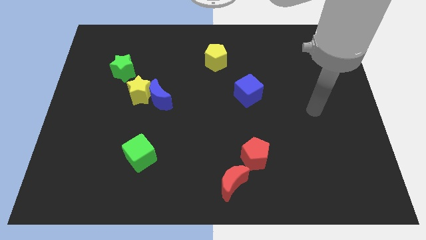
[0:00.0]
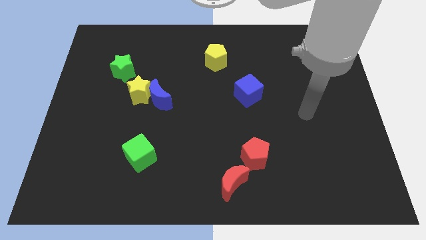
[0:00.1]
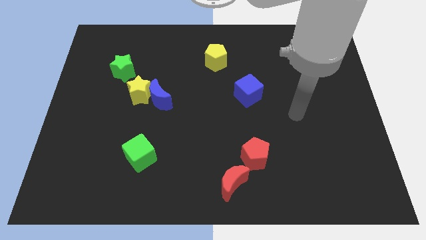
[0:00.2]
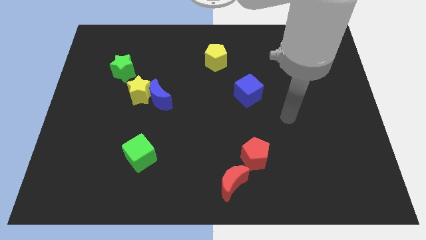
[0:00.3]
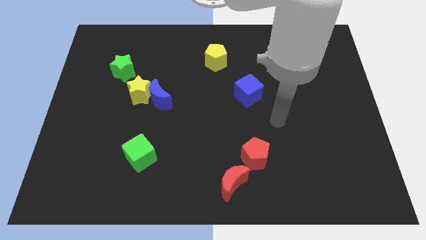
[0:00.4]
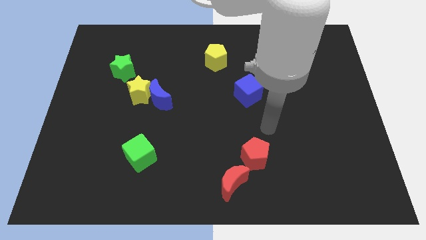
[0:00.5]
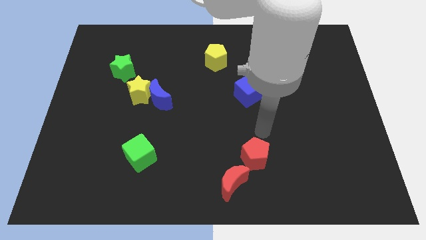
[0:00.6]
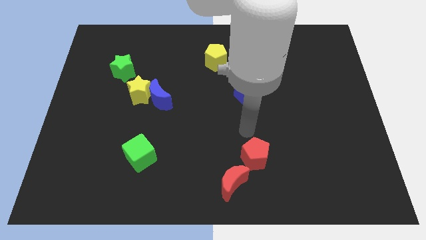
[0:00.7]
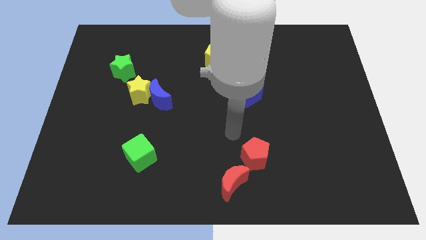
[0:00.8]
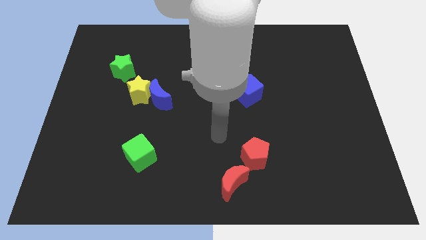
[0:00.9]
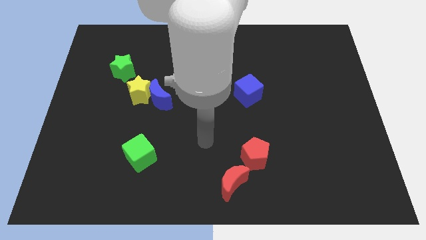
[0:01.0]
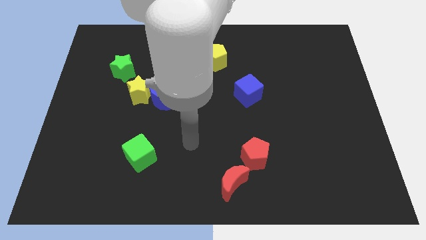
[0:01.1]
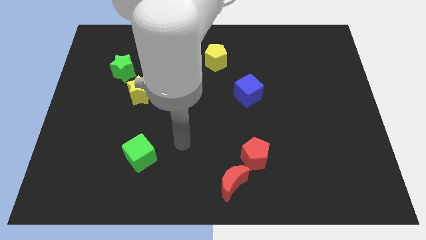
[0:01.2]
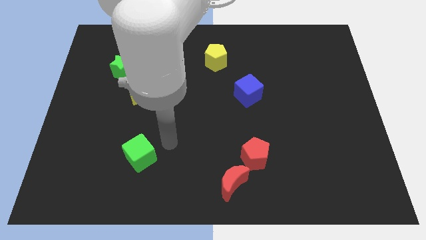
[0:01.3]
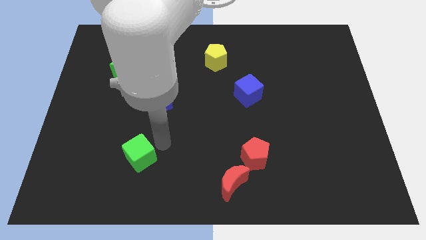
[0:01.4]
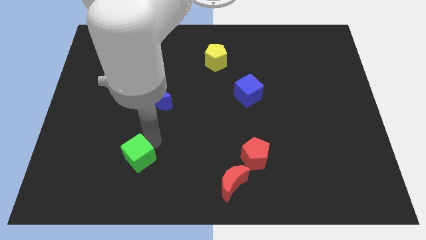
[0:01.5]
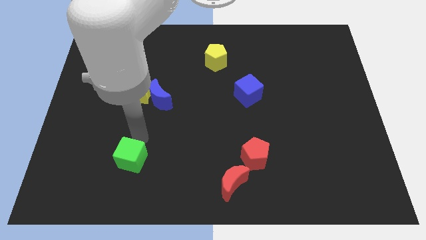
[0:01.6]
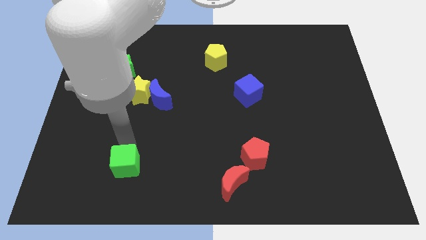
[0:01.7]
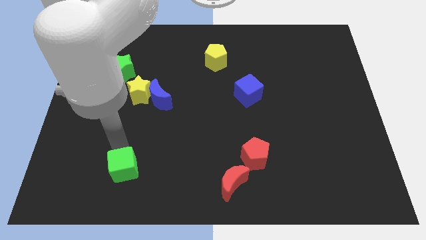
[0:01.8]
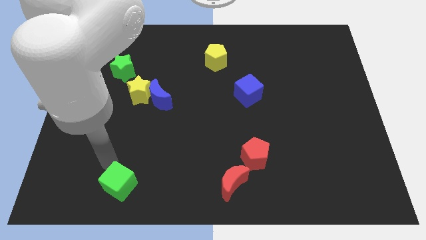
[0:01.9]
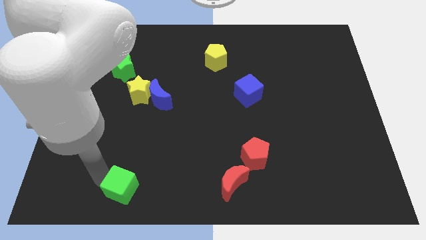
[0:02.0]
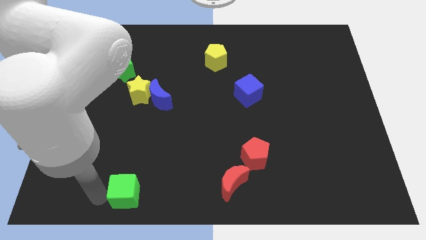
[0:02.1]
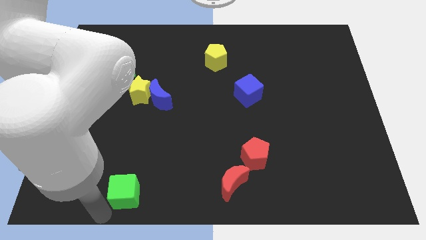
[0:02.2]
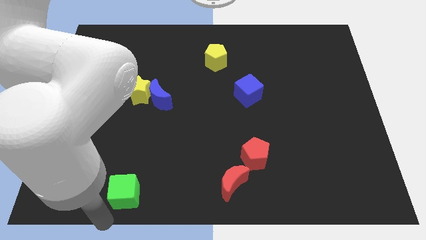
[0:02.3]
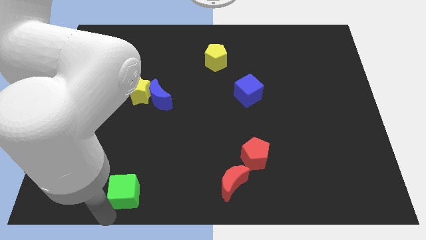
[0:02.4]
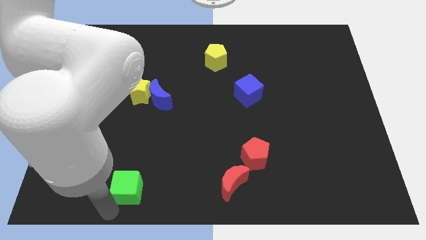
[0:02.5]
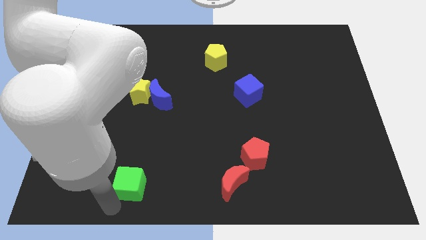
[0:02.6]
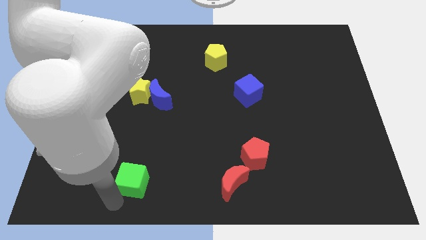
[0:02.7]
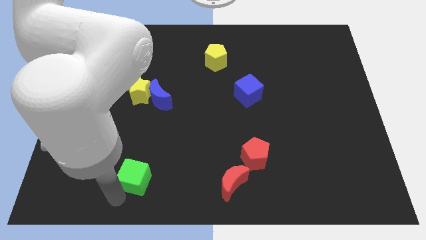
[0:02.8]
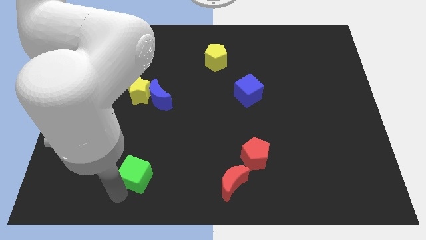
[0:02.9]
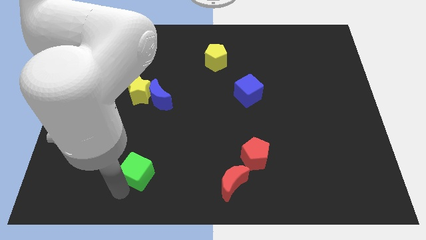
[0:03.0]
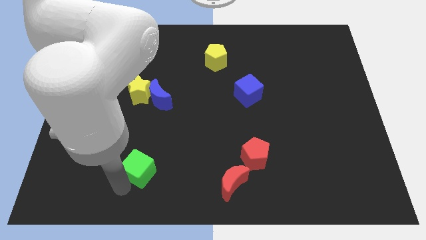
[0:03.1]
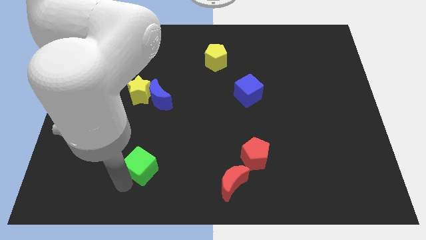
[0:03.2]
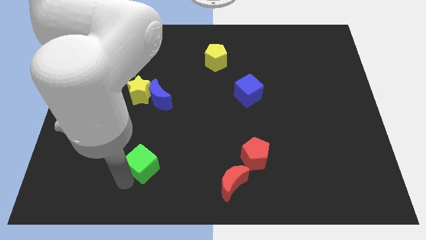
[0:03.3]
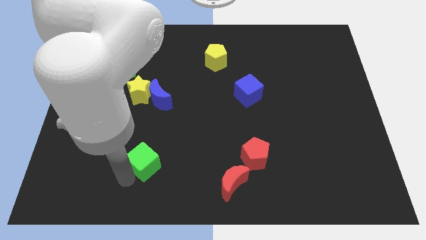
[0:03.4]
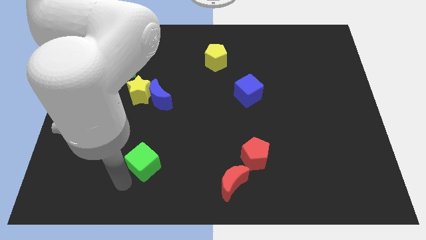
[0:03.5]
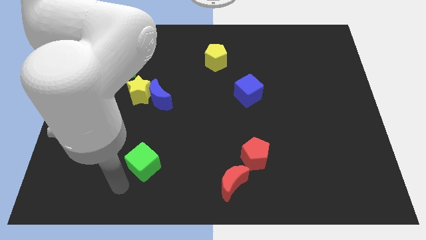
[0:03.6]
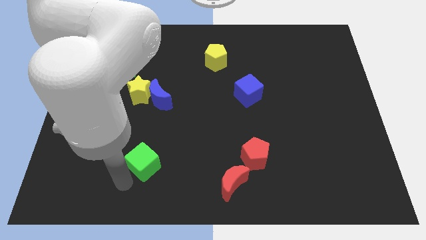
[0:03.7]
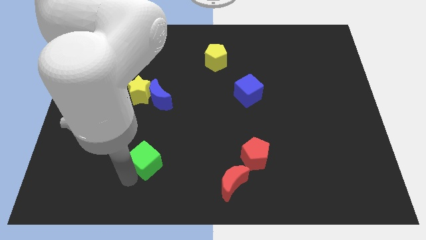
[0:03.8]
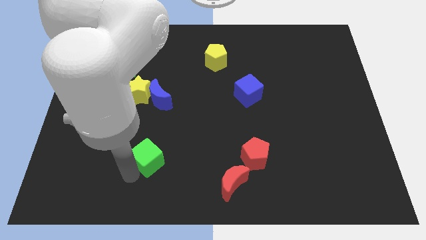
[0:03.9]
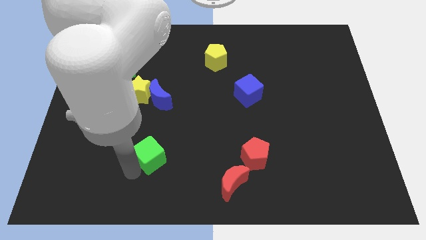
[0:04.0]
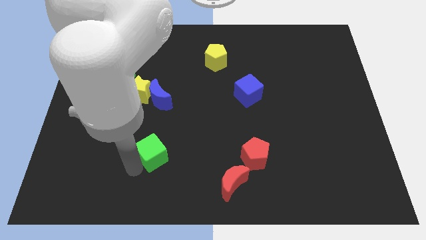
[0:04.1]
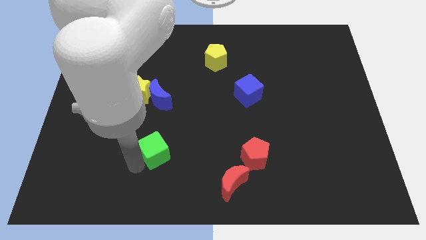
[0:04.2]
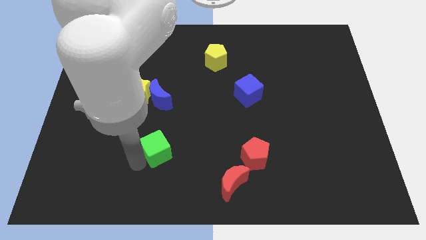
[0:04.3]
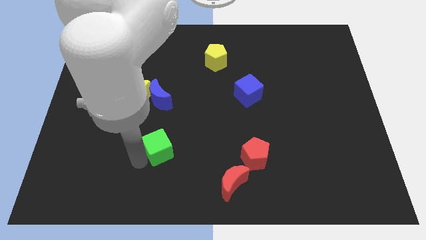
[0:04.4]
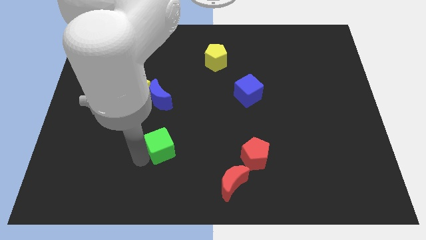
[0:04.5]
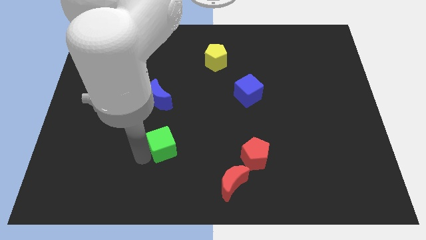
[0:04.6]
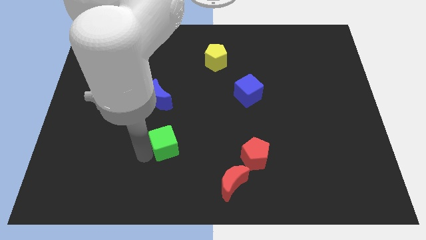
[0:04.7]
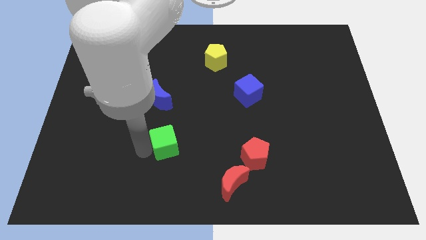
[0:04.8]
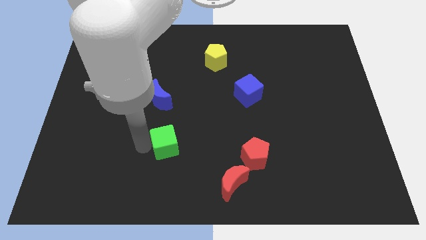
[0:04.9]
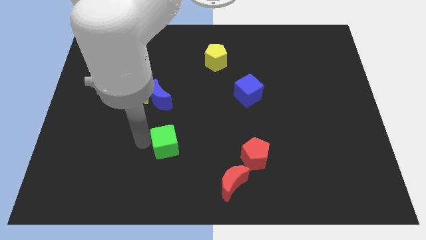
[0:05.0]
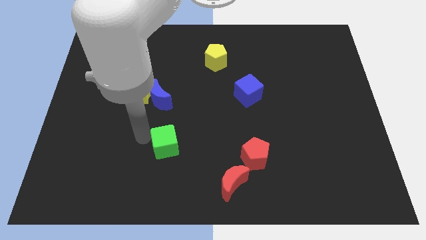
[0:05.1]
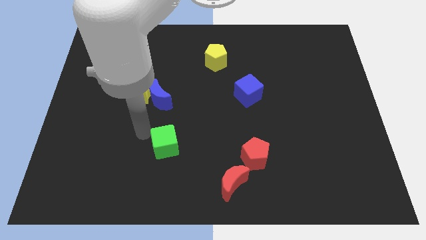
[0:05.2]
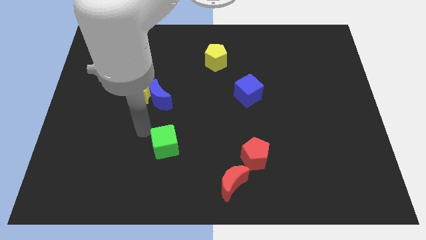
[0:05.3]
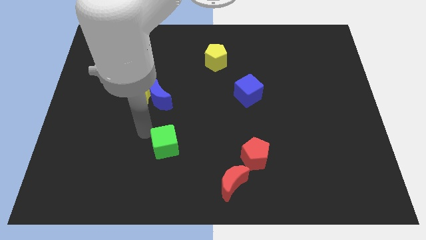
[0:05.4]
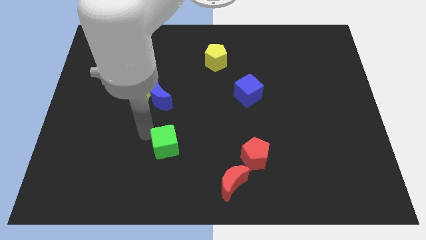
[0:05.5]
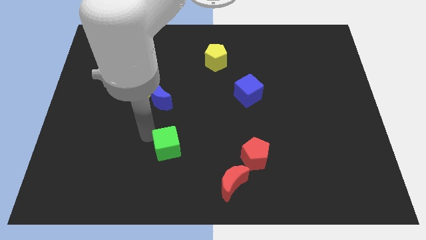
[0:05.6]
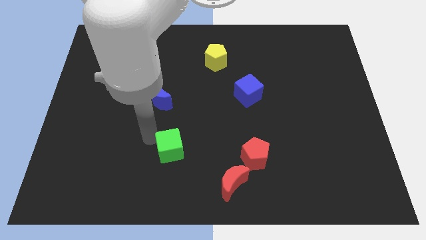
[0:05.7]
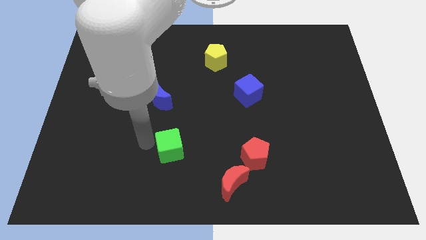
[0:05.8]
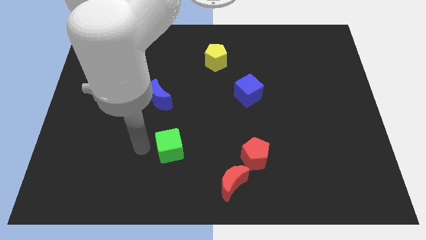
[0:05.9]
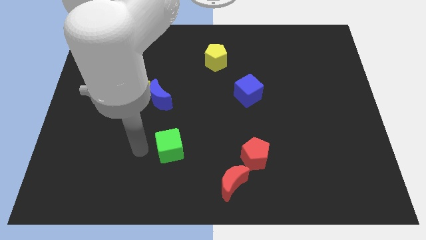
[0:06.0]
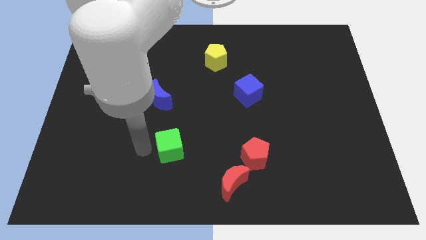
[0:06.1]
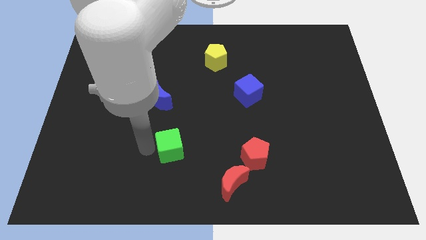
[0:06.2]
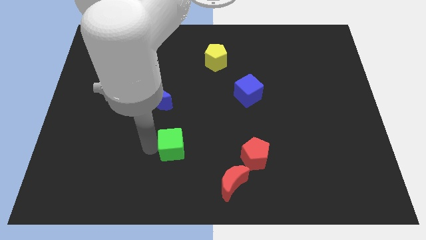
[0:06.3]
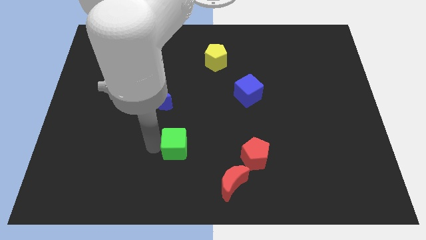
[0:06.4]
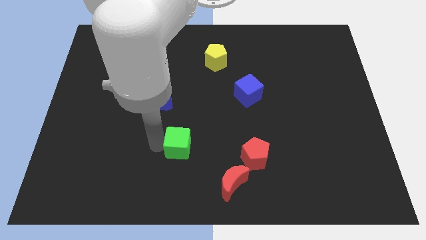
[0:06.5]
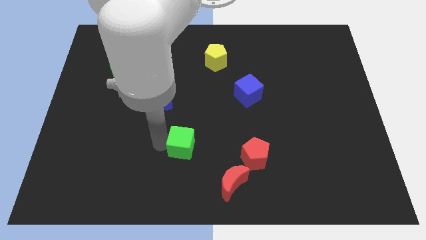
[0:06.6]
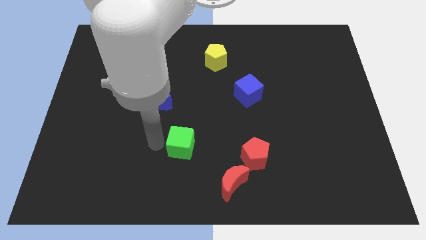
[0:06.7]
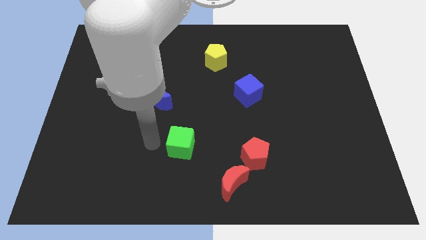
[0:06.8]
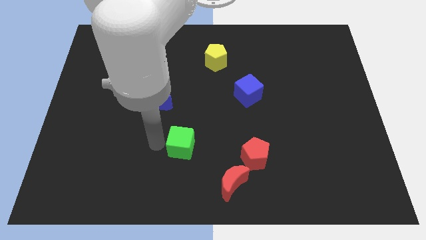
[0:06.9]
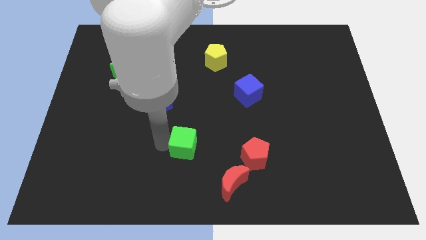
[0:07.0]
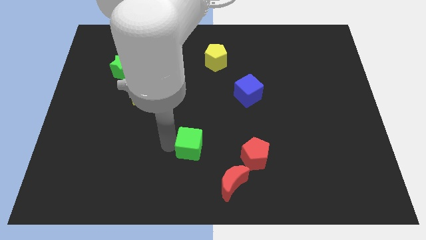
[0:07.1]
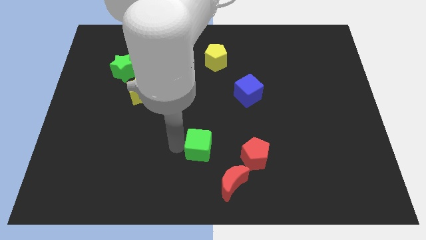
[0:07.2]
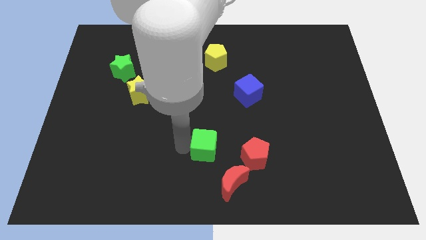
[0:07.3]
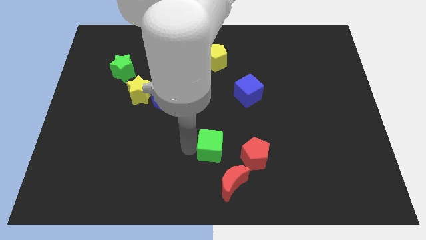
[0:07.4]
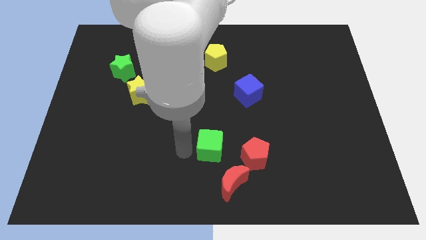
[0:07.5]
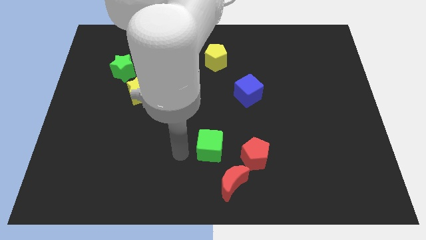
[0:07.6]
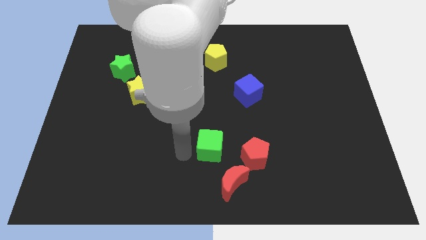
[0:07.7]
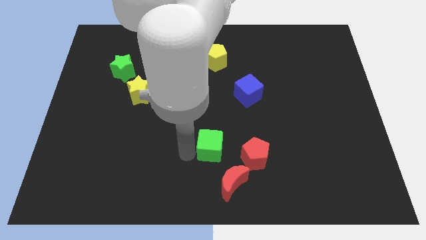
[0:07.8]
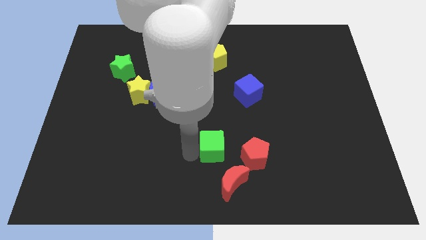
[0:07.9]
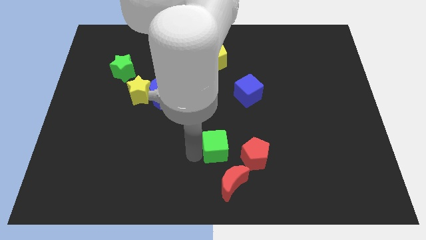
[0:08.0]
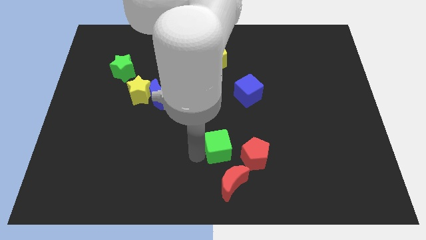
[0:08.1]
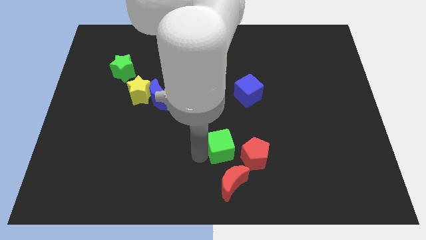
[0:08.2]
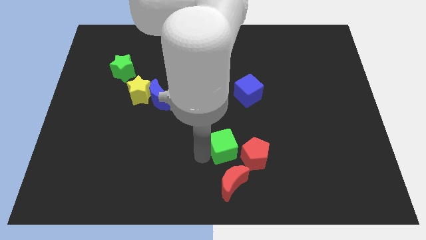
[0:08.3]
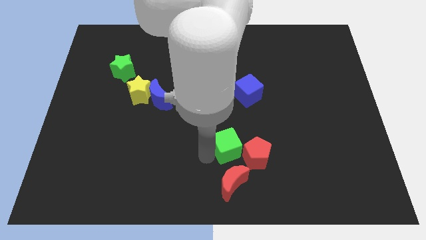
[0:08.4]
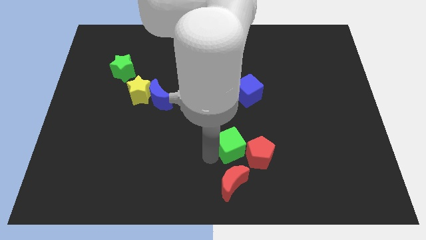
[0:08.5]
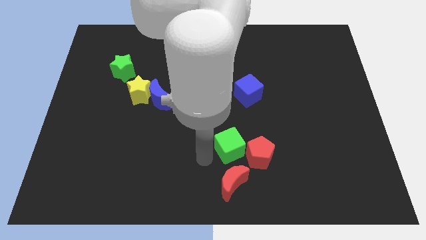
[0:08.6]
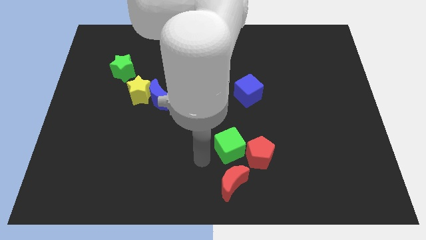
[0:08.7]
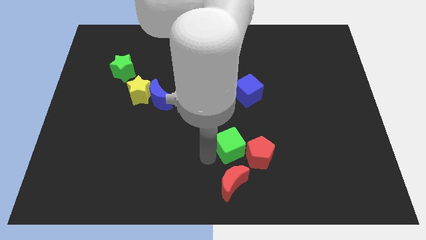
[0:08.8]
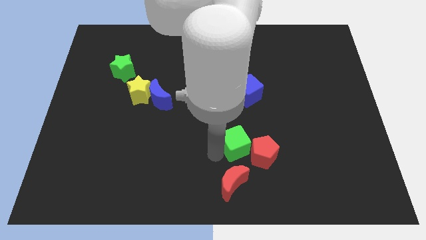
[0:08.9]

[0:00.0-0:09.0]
push the green cube right
